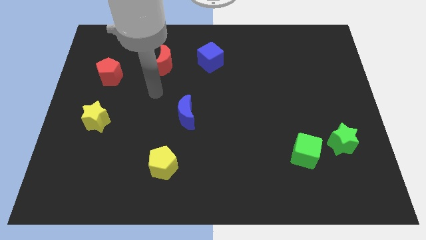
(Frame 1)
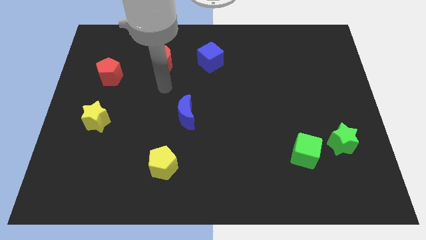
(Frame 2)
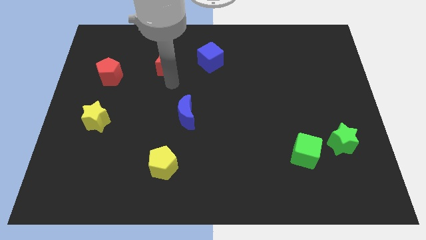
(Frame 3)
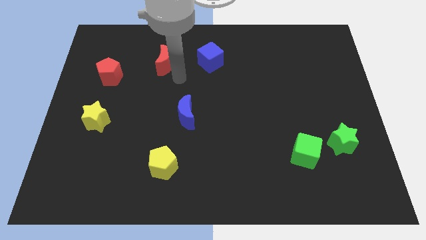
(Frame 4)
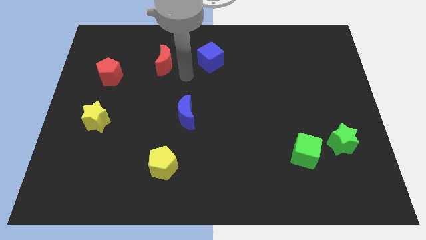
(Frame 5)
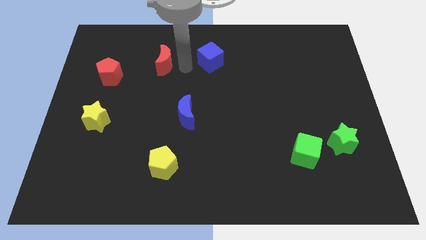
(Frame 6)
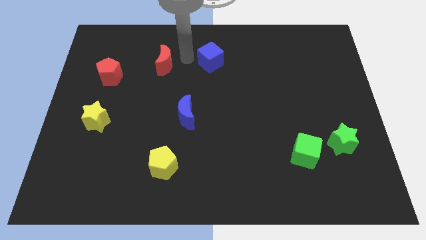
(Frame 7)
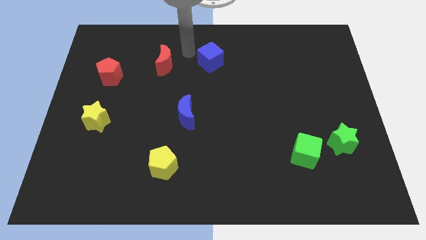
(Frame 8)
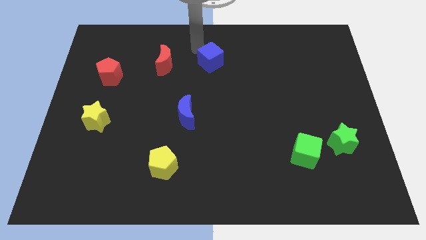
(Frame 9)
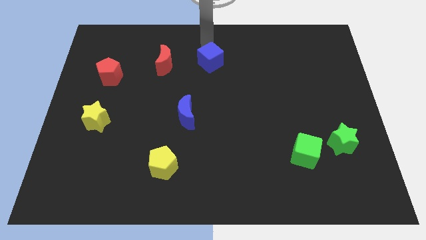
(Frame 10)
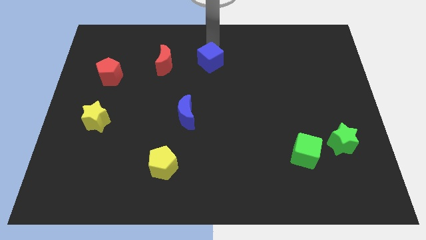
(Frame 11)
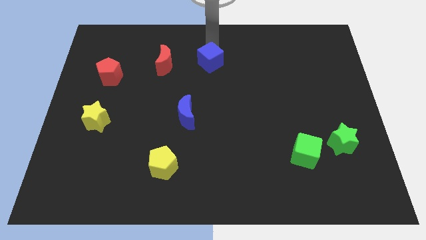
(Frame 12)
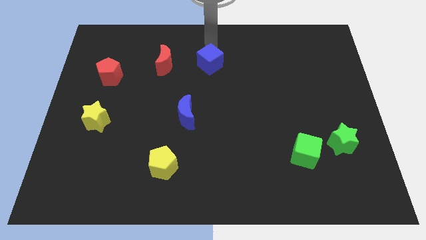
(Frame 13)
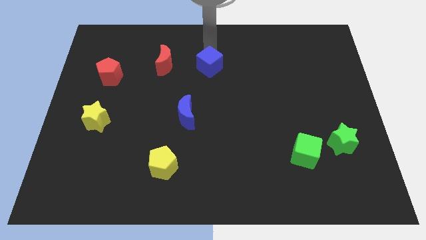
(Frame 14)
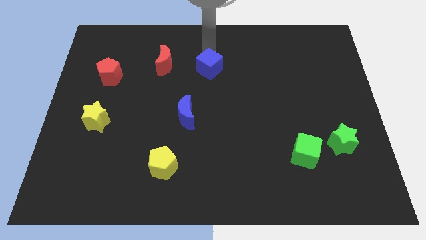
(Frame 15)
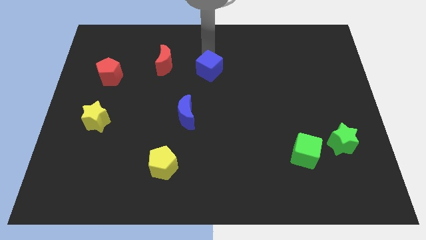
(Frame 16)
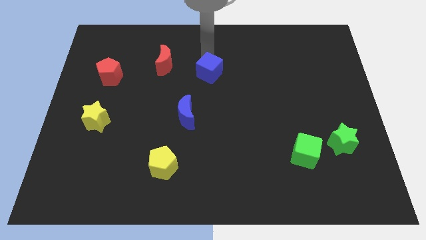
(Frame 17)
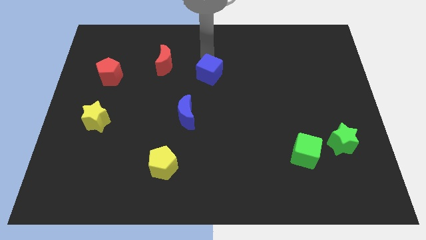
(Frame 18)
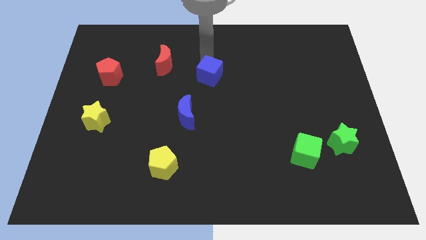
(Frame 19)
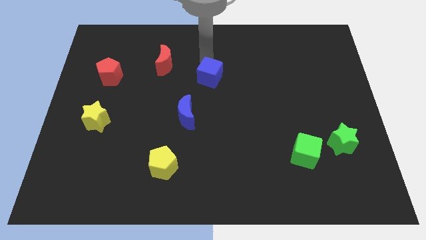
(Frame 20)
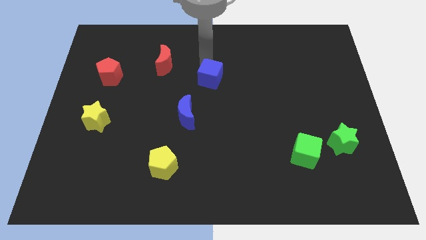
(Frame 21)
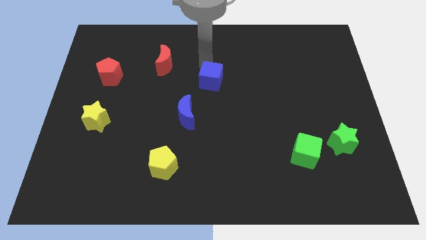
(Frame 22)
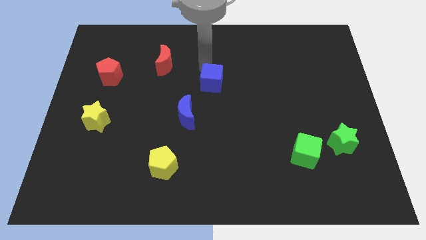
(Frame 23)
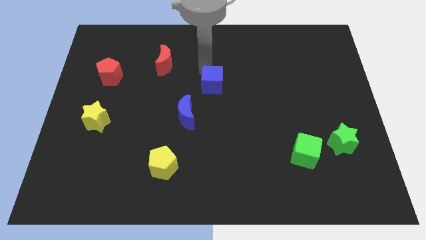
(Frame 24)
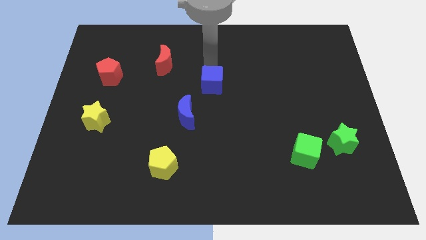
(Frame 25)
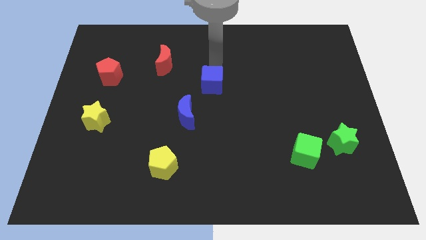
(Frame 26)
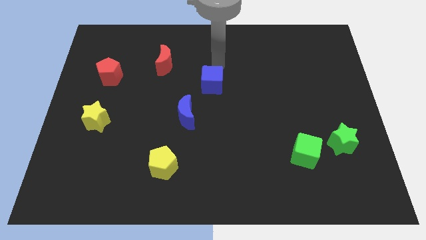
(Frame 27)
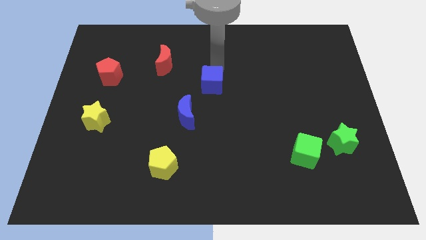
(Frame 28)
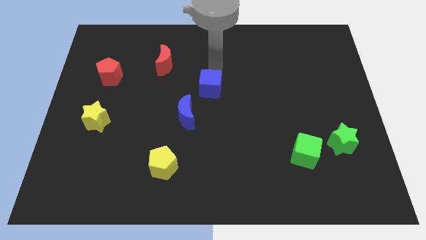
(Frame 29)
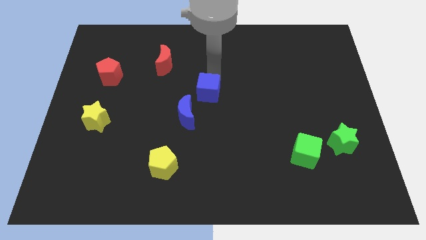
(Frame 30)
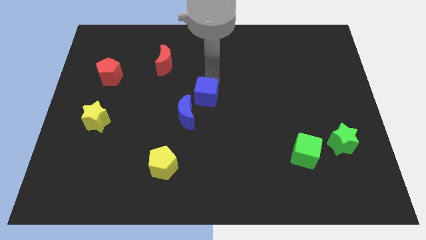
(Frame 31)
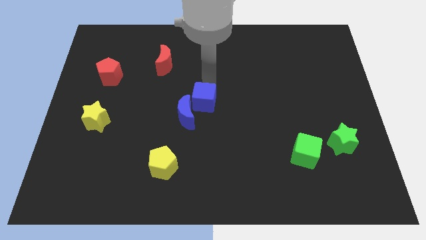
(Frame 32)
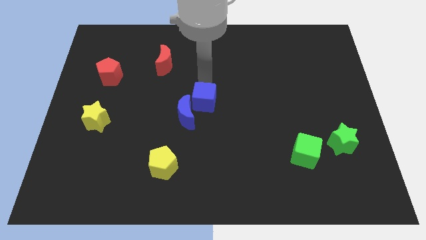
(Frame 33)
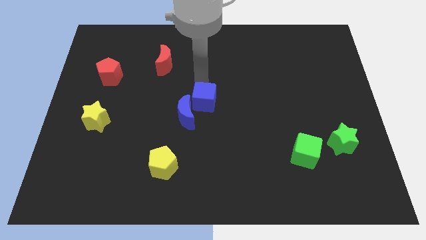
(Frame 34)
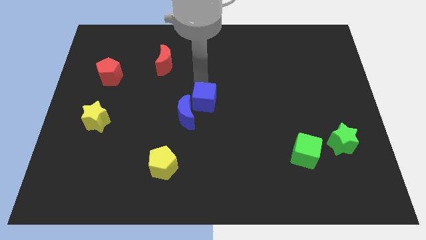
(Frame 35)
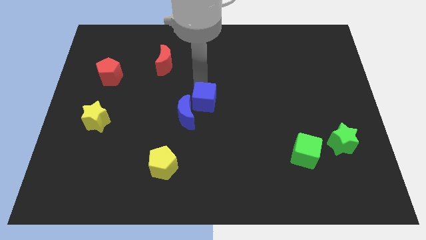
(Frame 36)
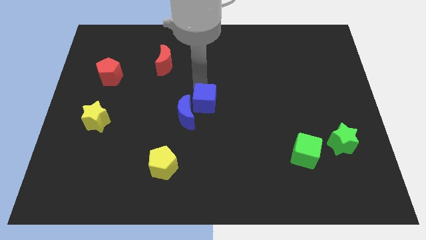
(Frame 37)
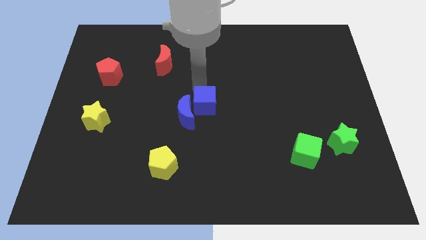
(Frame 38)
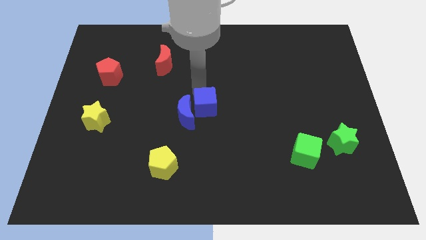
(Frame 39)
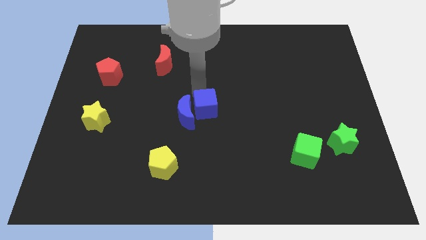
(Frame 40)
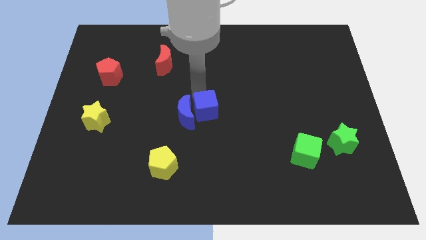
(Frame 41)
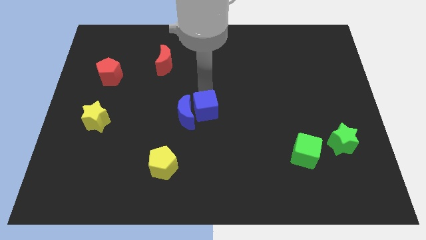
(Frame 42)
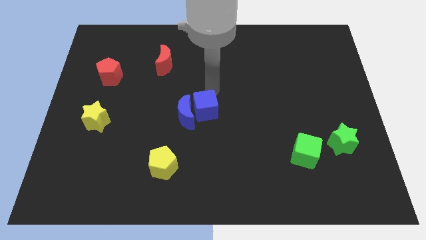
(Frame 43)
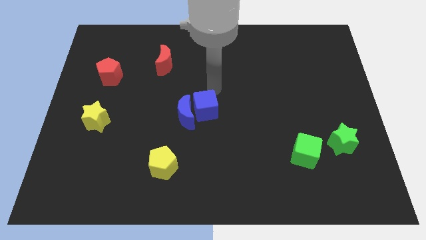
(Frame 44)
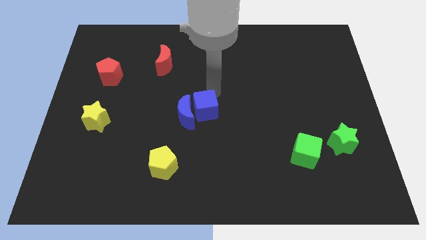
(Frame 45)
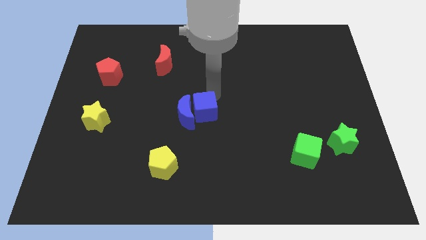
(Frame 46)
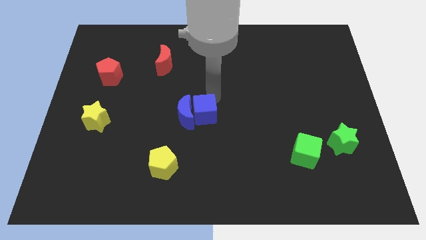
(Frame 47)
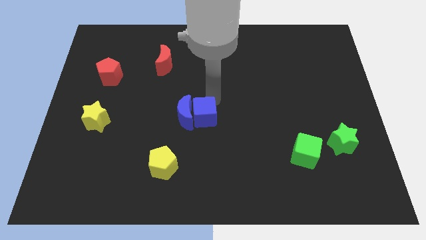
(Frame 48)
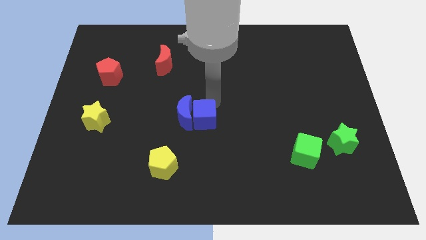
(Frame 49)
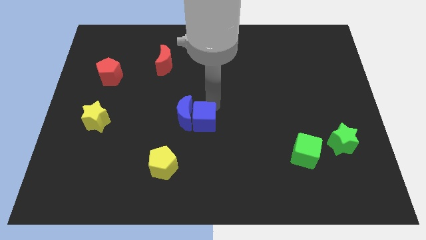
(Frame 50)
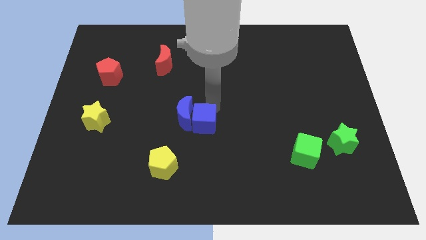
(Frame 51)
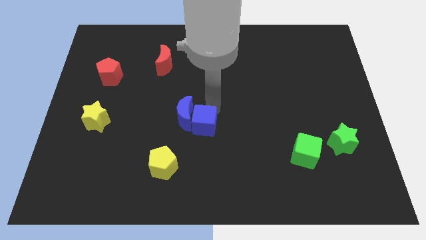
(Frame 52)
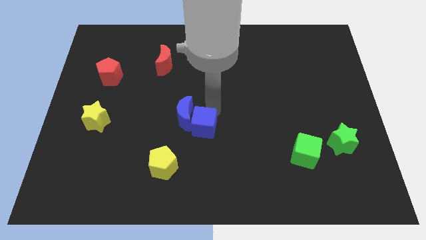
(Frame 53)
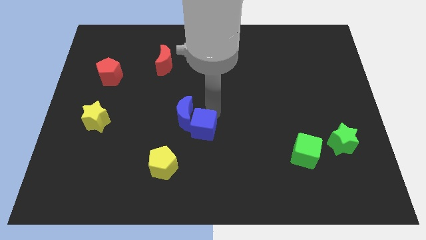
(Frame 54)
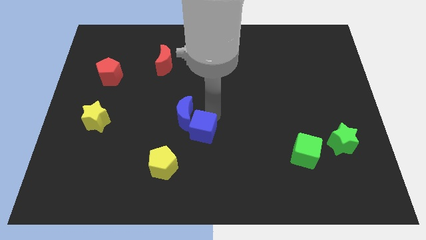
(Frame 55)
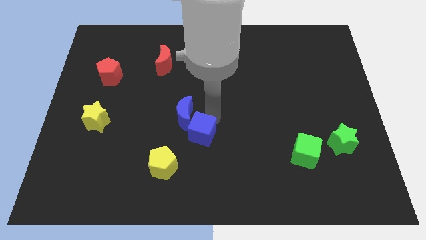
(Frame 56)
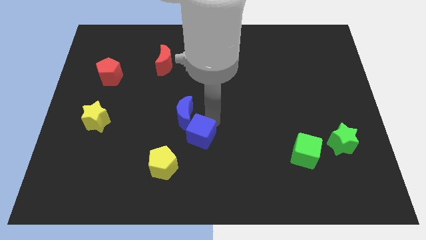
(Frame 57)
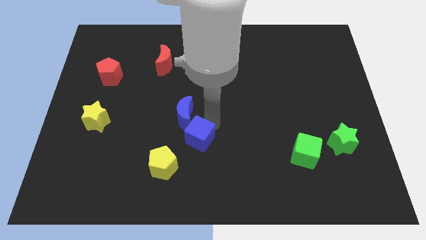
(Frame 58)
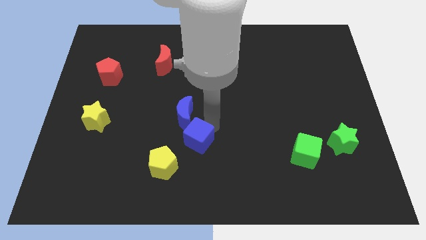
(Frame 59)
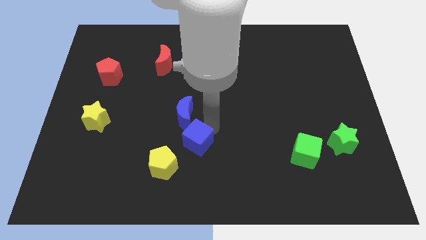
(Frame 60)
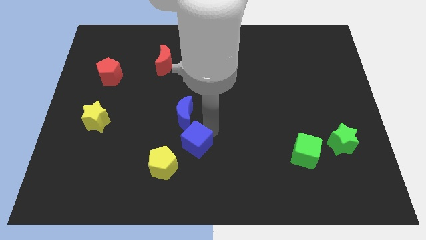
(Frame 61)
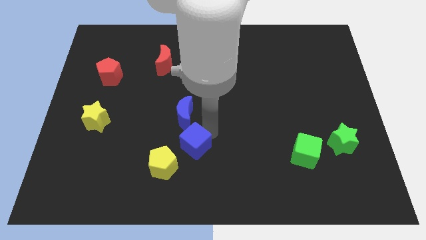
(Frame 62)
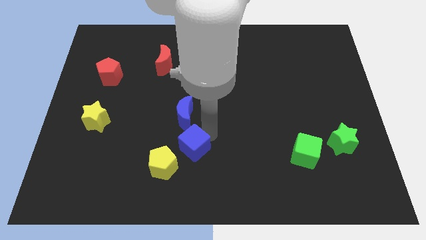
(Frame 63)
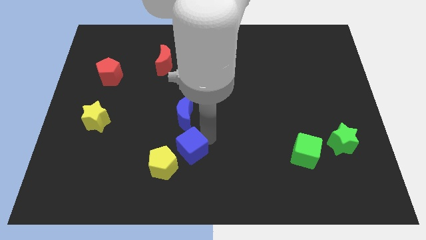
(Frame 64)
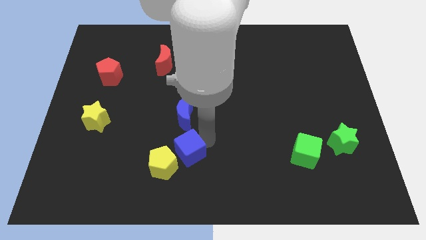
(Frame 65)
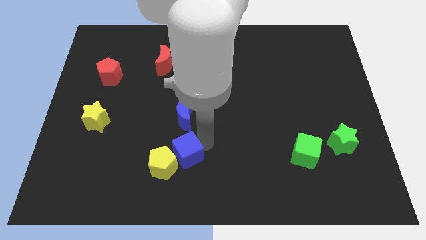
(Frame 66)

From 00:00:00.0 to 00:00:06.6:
slide the blue cube next to the yellow pentagon
